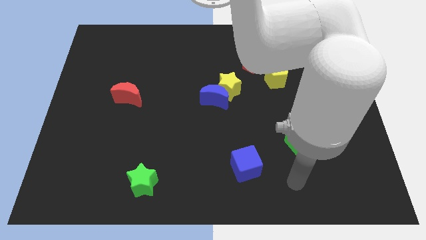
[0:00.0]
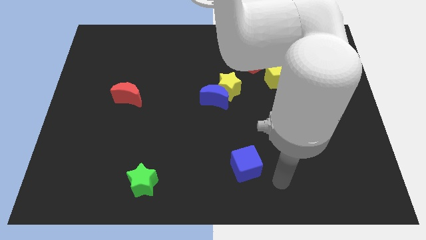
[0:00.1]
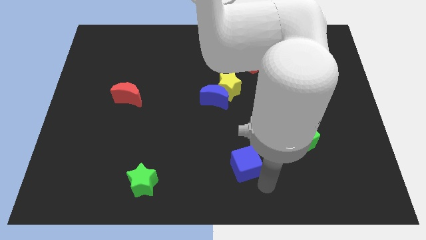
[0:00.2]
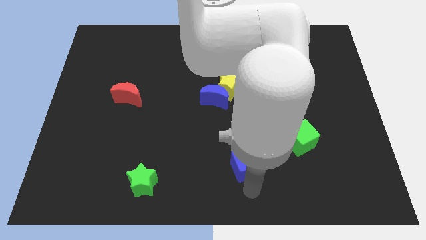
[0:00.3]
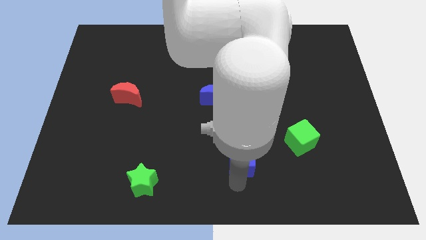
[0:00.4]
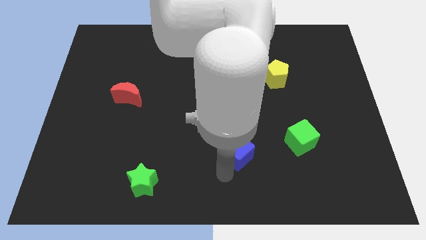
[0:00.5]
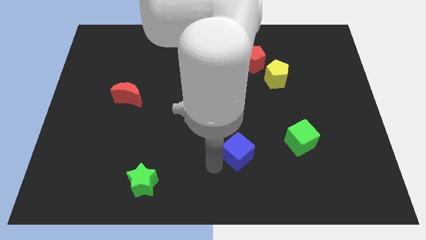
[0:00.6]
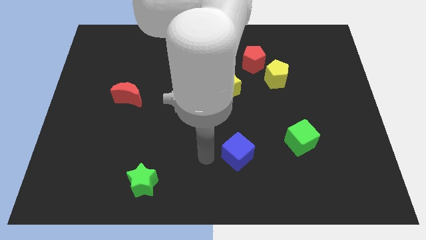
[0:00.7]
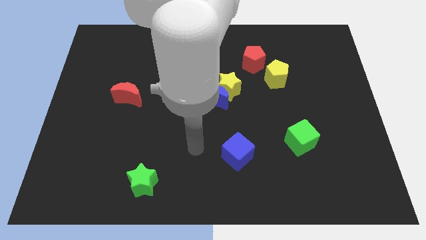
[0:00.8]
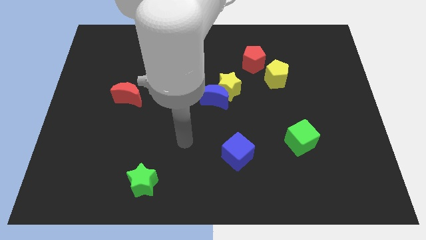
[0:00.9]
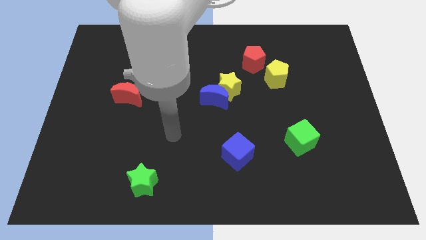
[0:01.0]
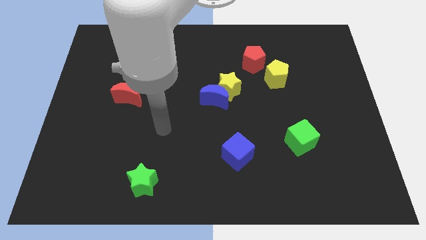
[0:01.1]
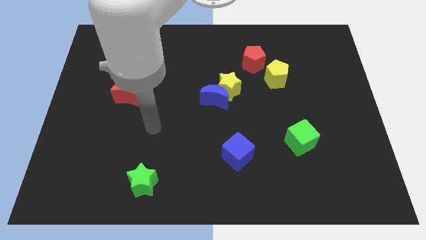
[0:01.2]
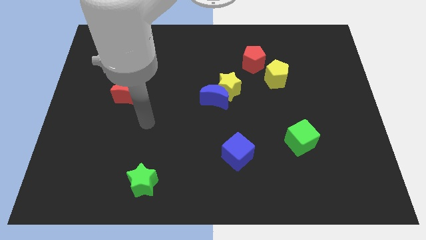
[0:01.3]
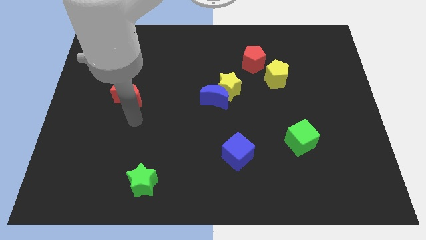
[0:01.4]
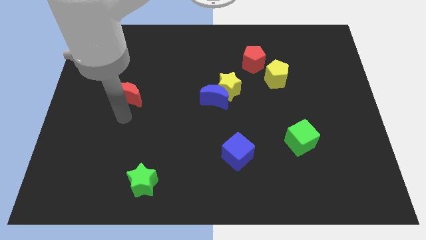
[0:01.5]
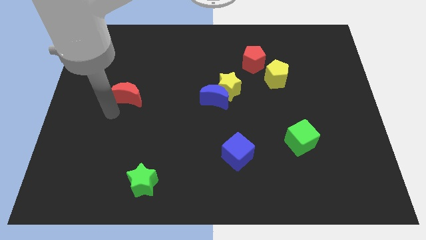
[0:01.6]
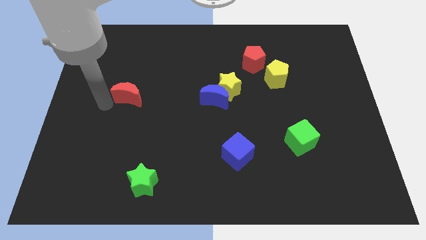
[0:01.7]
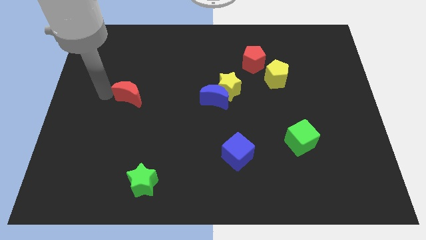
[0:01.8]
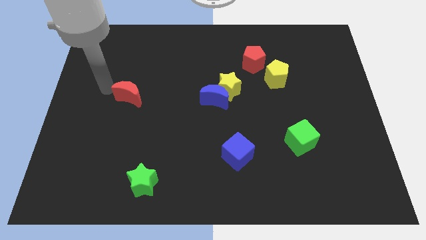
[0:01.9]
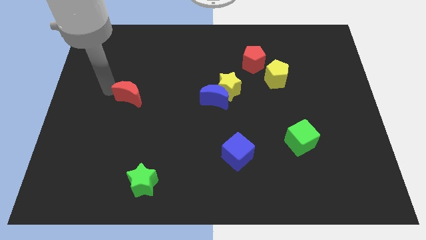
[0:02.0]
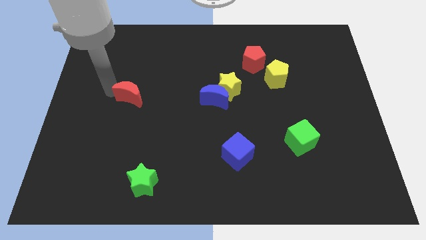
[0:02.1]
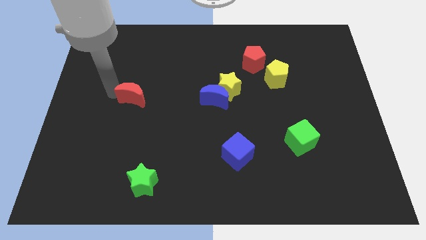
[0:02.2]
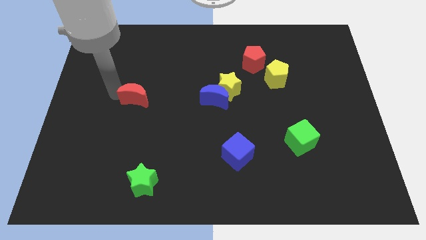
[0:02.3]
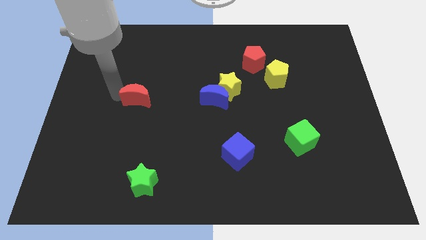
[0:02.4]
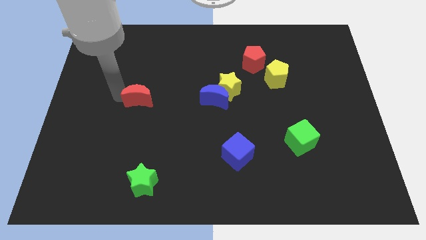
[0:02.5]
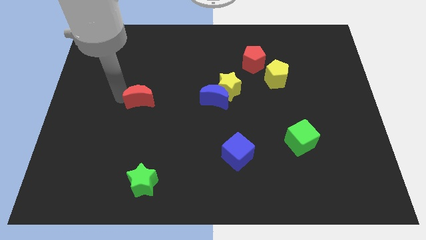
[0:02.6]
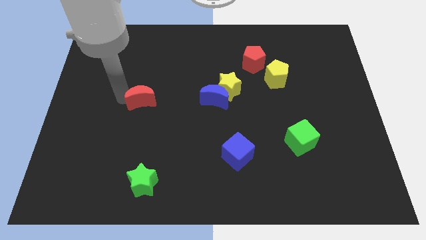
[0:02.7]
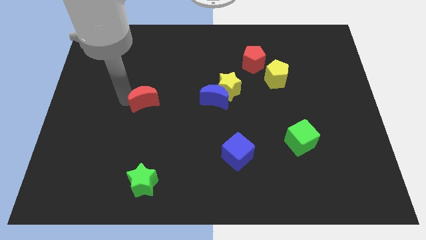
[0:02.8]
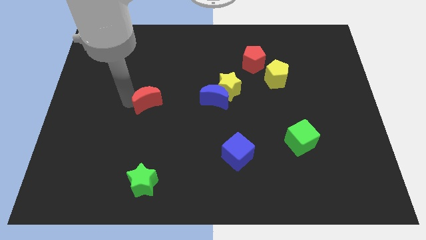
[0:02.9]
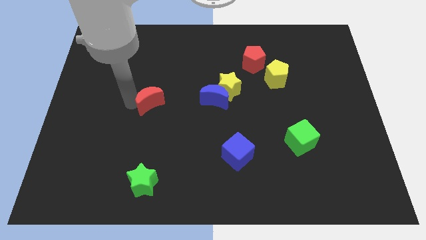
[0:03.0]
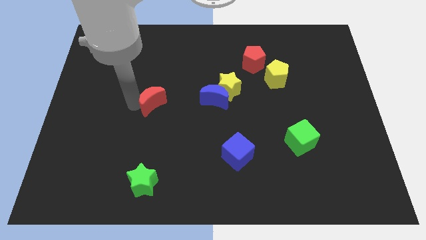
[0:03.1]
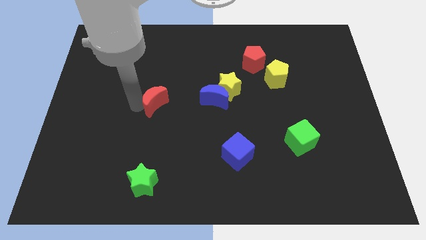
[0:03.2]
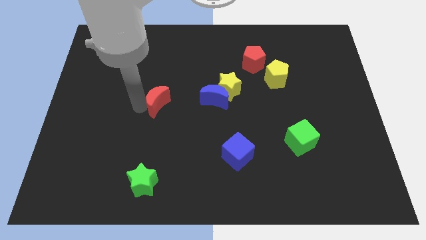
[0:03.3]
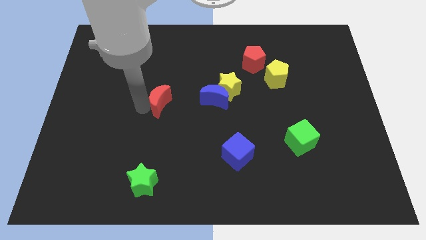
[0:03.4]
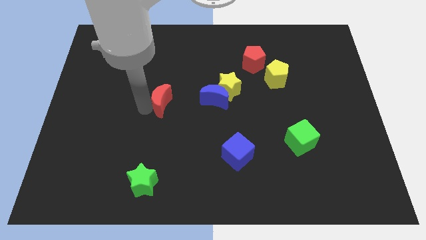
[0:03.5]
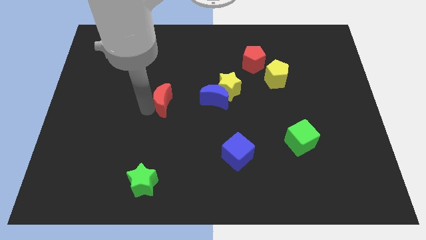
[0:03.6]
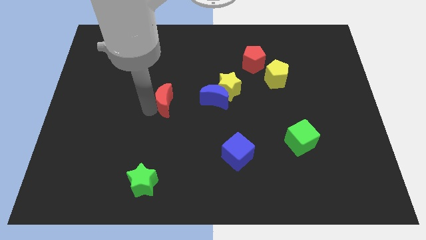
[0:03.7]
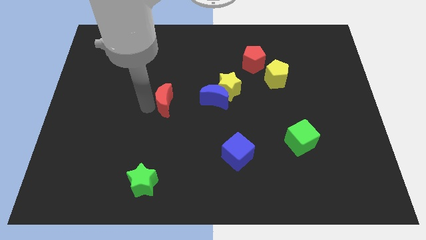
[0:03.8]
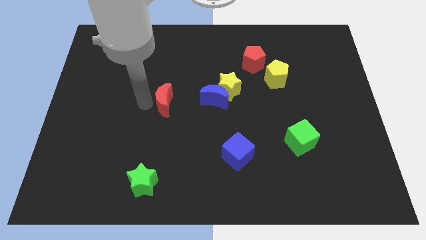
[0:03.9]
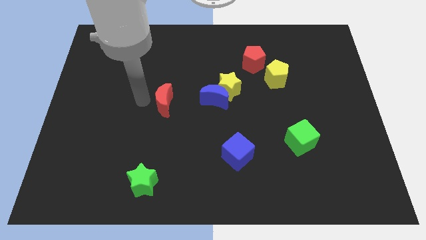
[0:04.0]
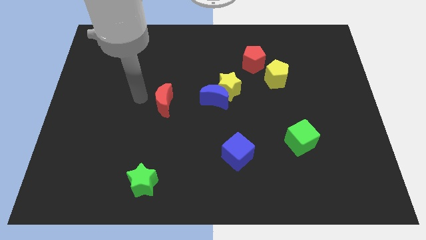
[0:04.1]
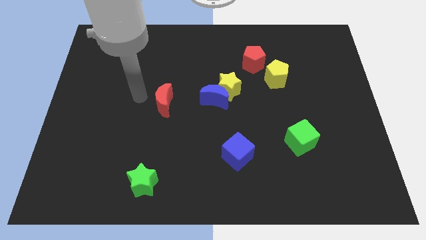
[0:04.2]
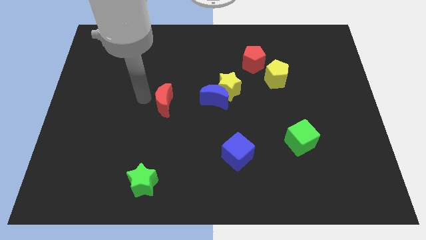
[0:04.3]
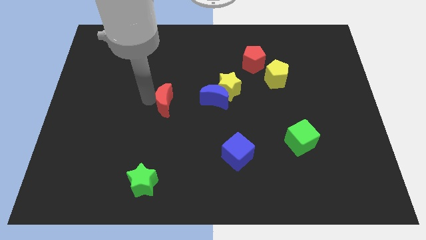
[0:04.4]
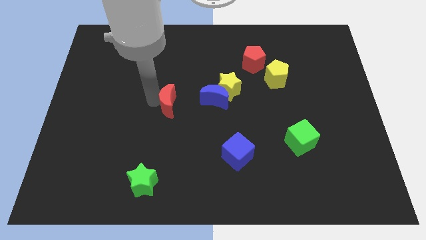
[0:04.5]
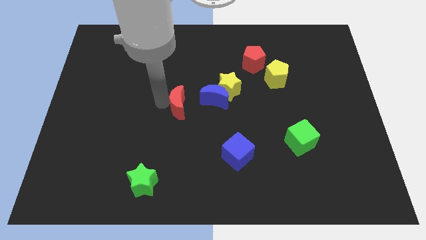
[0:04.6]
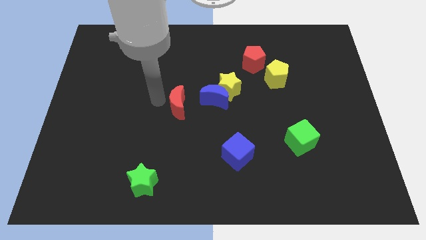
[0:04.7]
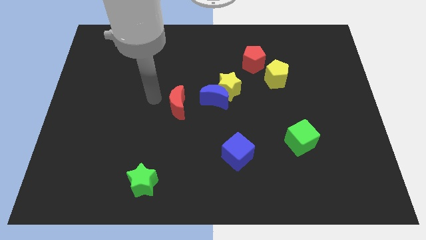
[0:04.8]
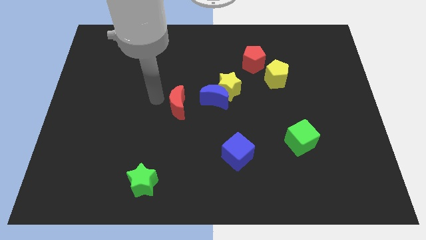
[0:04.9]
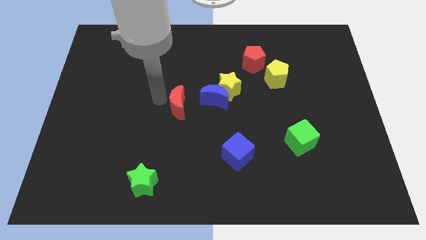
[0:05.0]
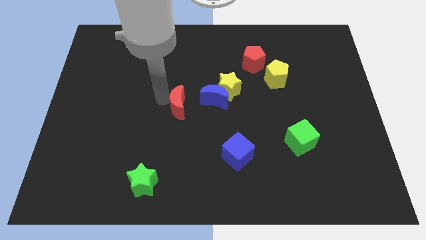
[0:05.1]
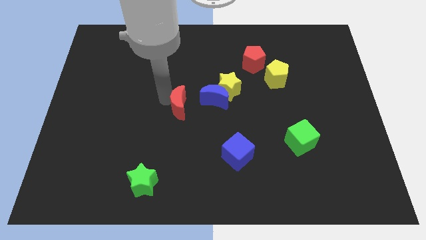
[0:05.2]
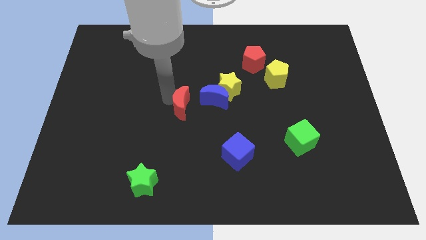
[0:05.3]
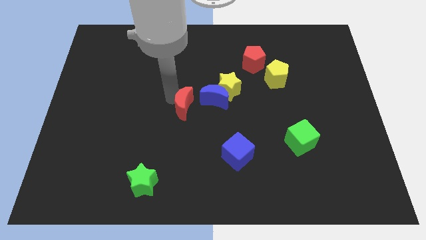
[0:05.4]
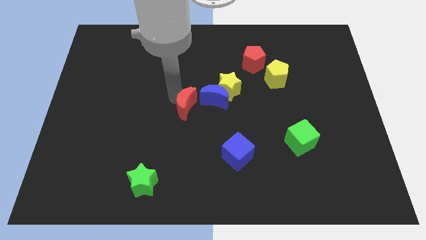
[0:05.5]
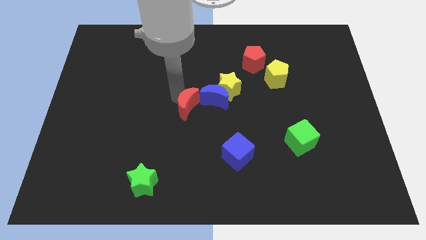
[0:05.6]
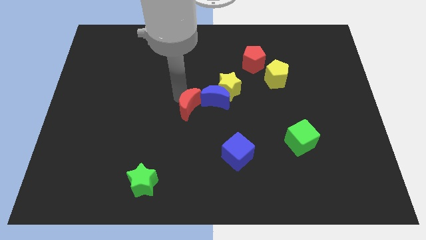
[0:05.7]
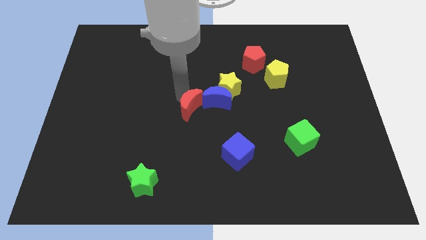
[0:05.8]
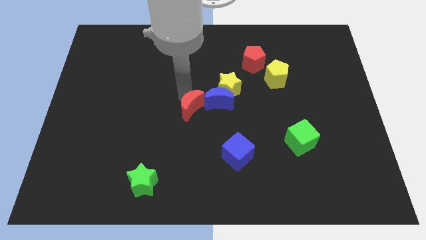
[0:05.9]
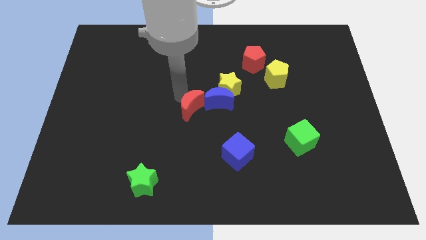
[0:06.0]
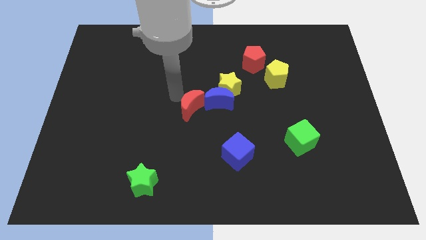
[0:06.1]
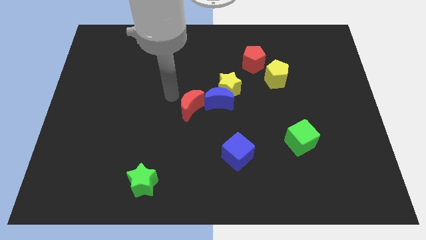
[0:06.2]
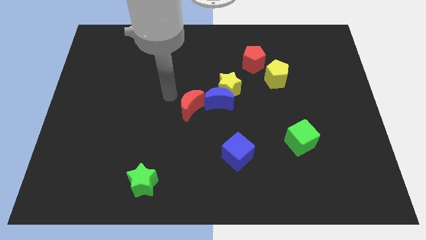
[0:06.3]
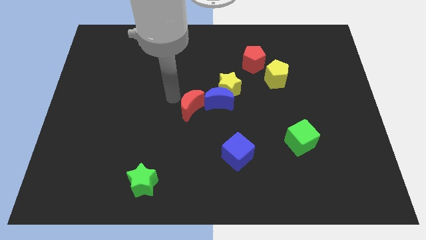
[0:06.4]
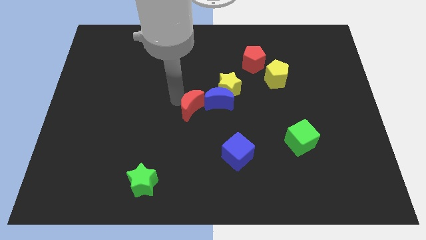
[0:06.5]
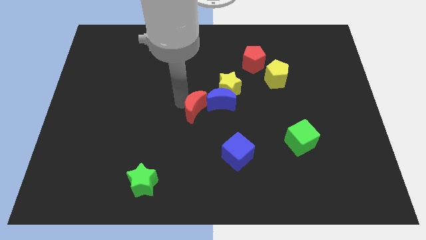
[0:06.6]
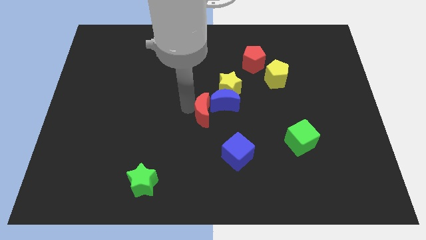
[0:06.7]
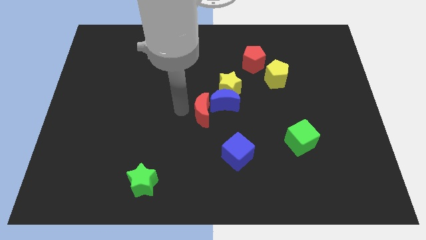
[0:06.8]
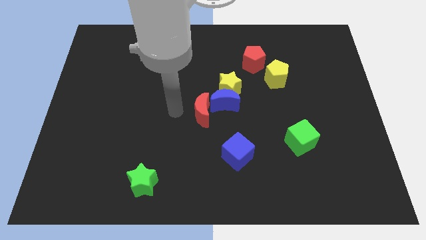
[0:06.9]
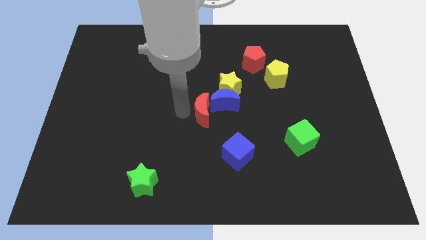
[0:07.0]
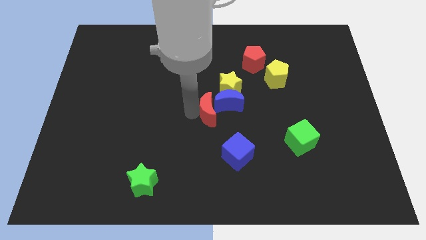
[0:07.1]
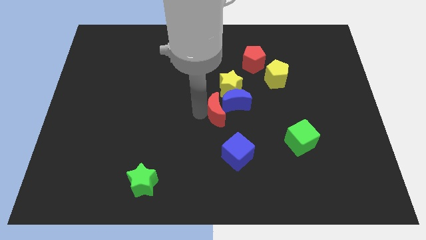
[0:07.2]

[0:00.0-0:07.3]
slide the red moon to the top side of the blue cube
